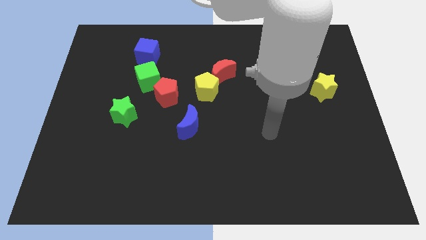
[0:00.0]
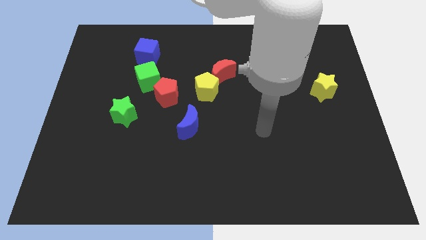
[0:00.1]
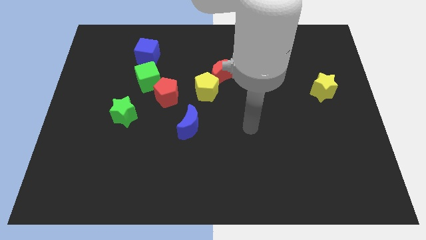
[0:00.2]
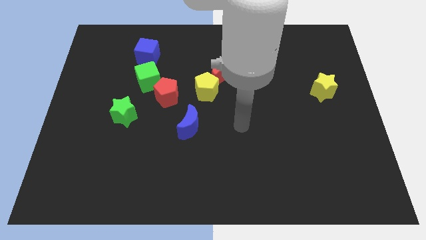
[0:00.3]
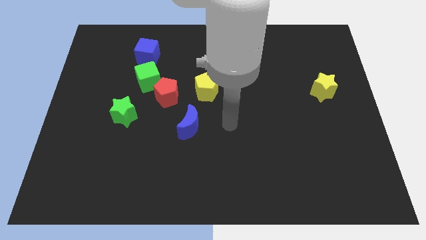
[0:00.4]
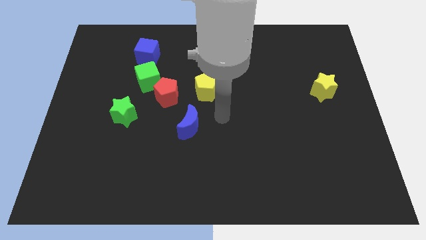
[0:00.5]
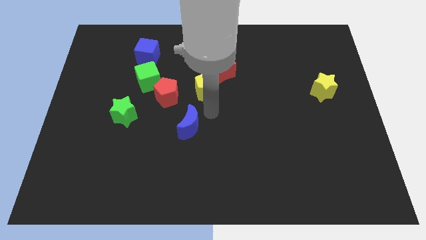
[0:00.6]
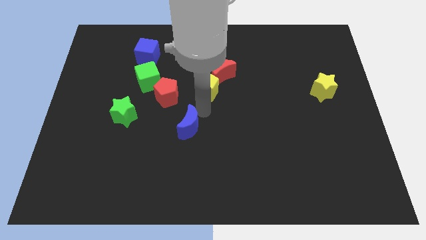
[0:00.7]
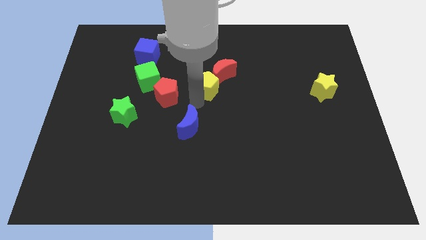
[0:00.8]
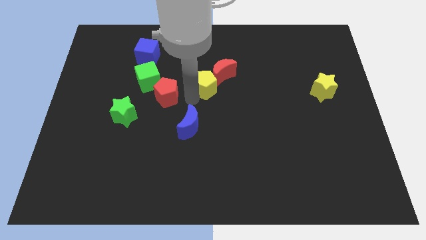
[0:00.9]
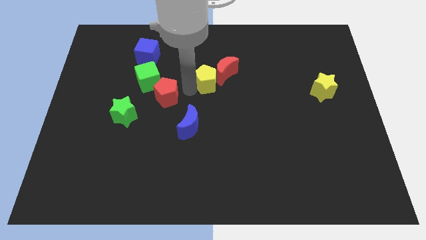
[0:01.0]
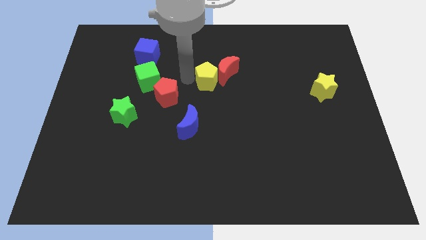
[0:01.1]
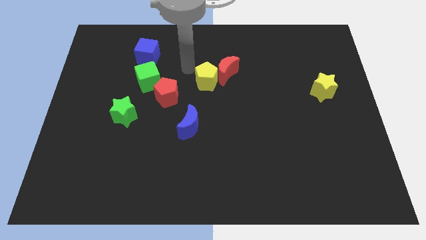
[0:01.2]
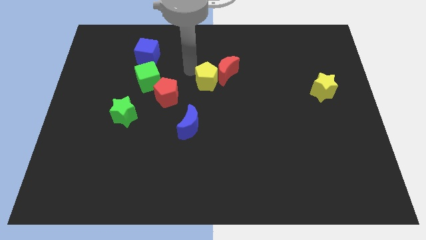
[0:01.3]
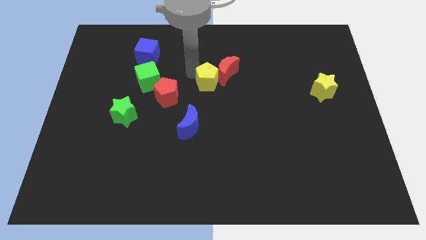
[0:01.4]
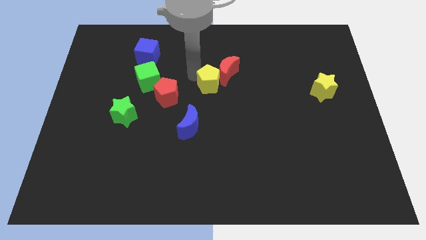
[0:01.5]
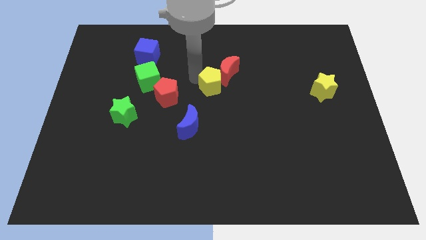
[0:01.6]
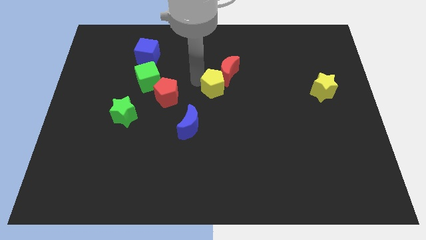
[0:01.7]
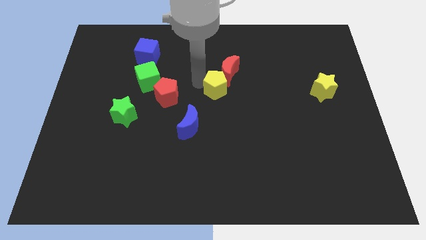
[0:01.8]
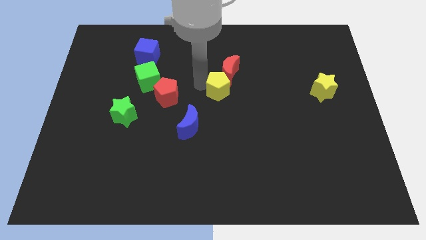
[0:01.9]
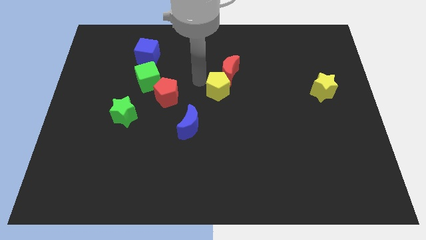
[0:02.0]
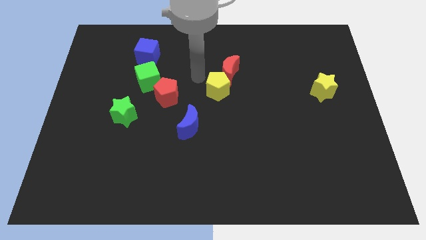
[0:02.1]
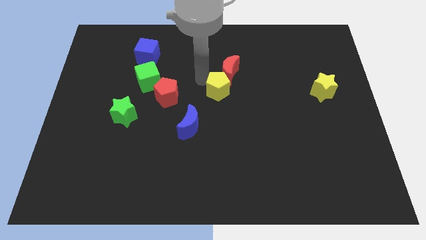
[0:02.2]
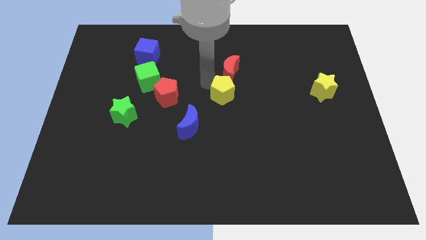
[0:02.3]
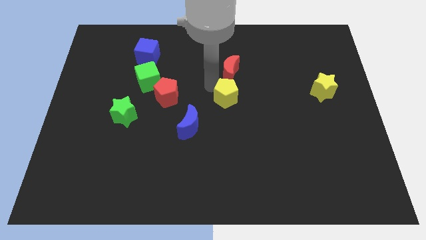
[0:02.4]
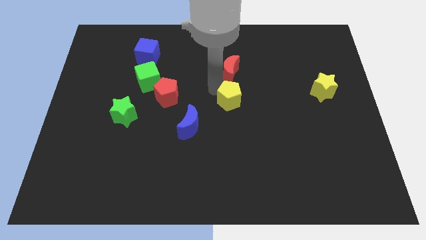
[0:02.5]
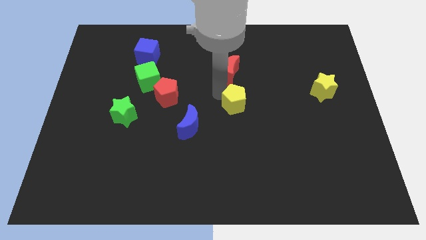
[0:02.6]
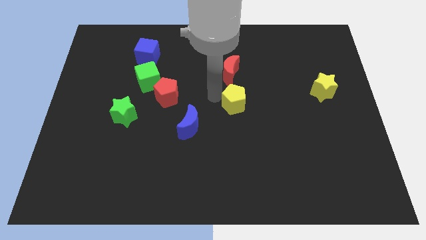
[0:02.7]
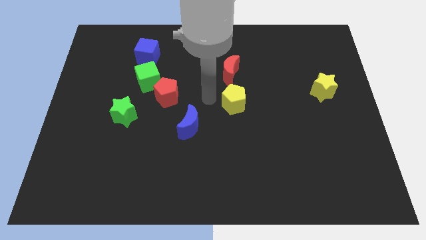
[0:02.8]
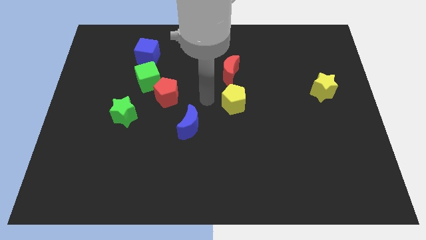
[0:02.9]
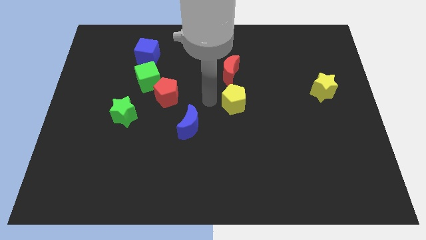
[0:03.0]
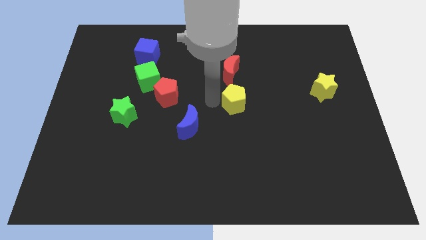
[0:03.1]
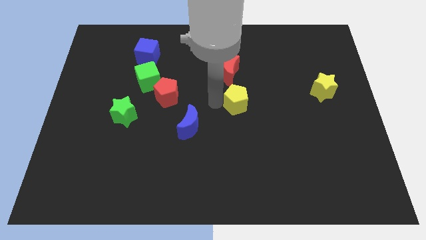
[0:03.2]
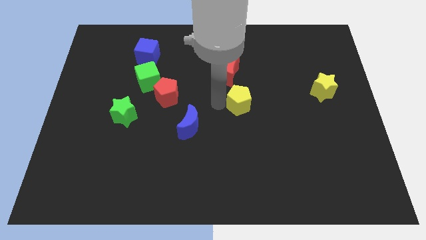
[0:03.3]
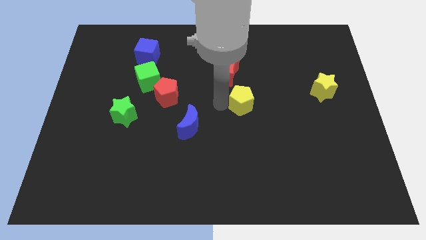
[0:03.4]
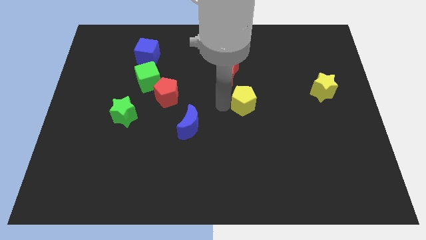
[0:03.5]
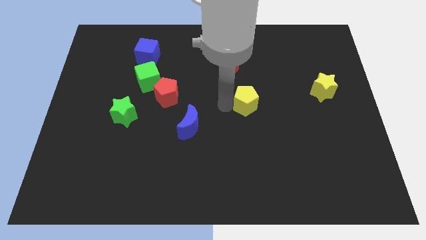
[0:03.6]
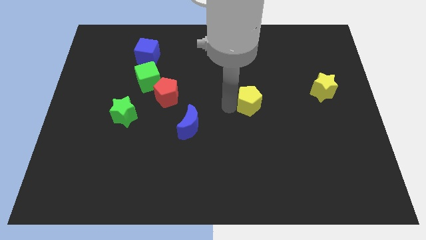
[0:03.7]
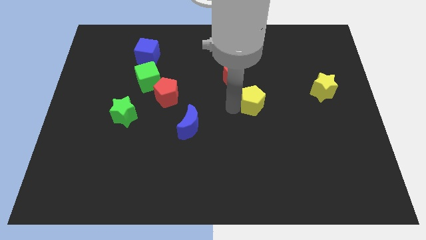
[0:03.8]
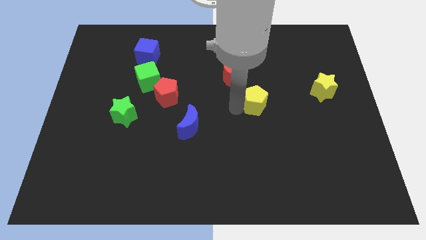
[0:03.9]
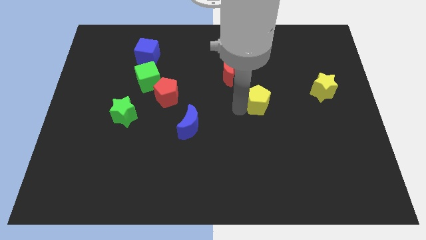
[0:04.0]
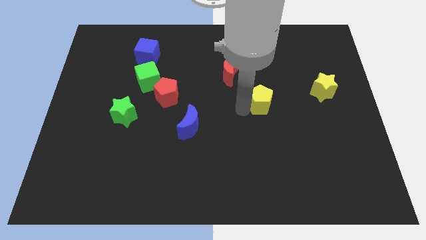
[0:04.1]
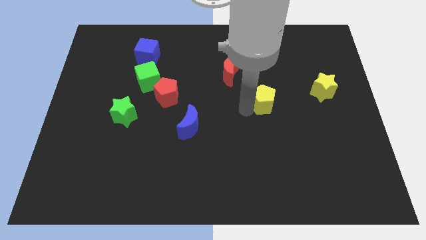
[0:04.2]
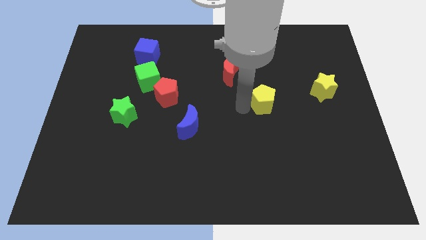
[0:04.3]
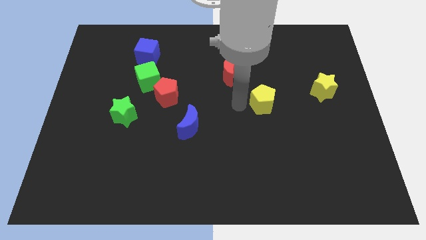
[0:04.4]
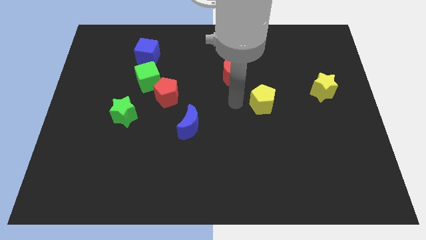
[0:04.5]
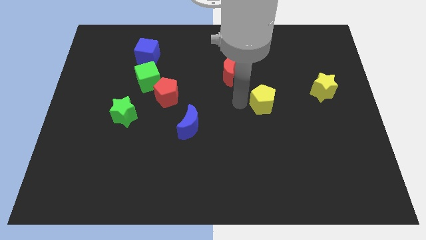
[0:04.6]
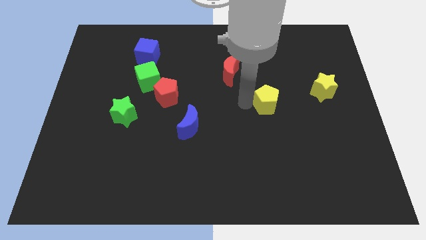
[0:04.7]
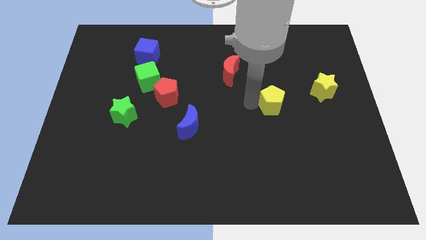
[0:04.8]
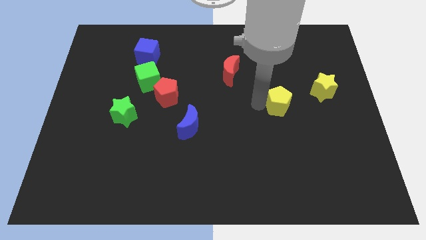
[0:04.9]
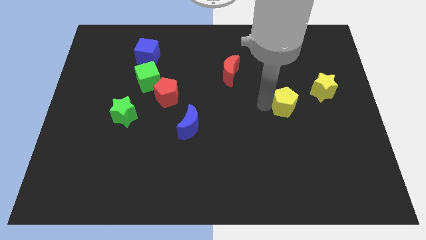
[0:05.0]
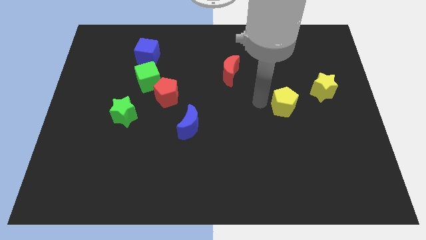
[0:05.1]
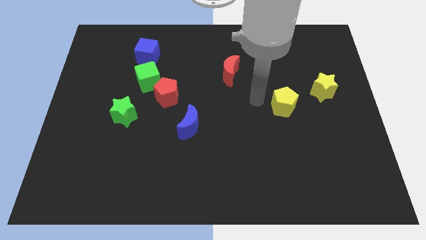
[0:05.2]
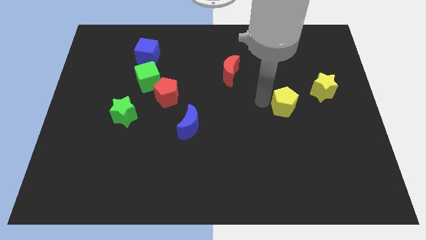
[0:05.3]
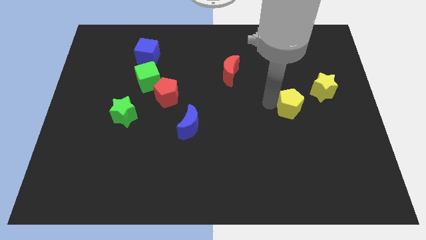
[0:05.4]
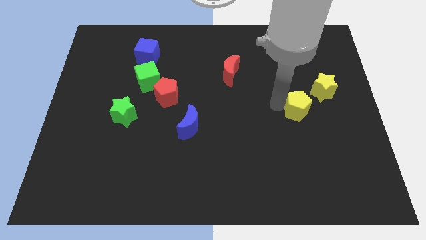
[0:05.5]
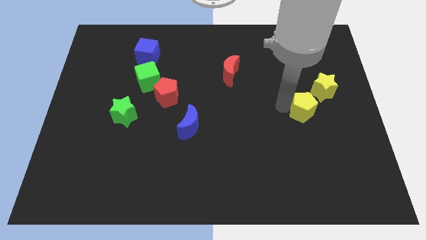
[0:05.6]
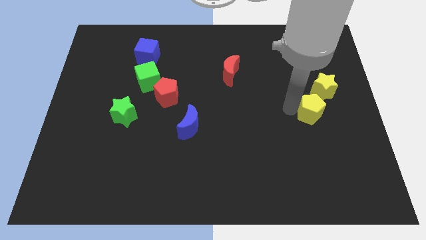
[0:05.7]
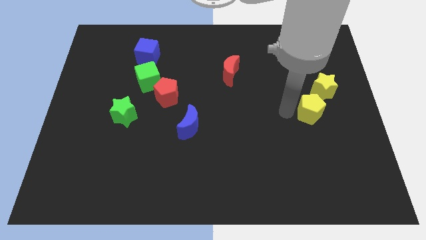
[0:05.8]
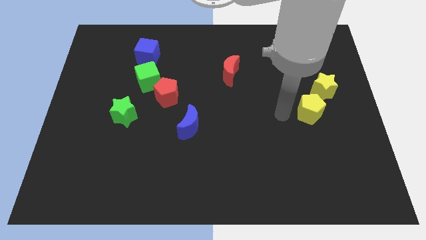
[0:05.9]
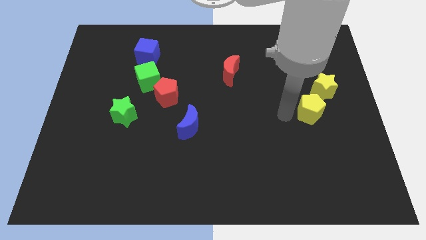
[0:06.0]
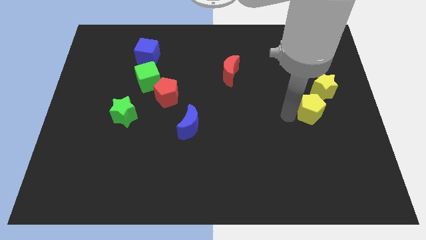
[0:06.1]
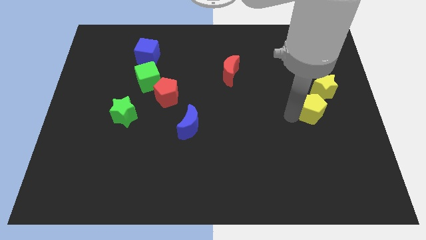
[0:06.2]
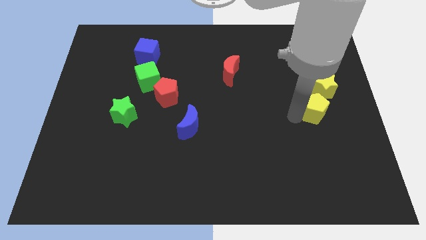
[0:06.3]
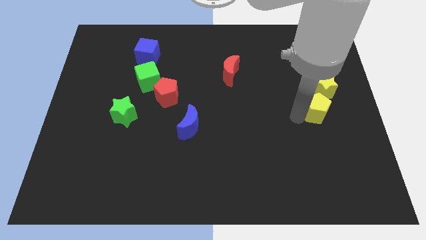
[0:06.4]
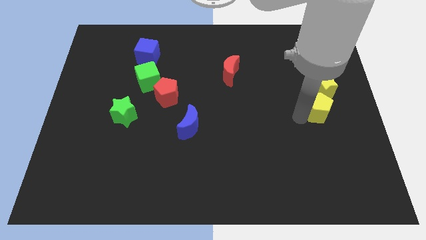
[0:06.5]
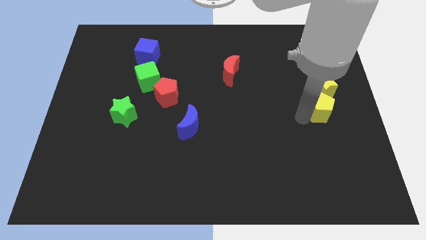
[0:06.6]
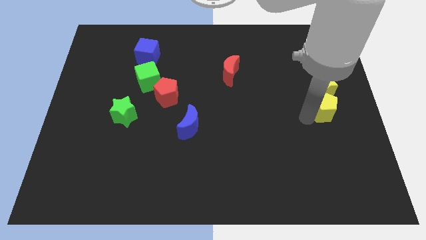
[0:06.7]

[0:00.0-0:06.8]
push the yellow pentagon to the right side
